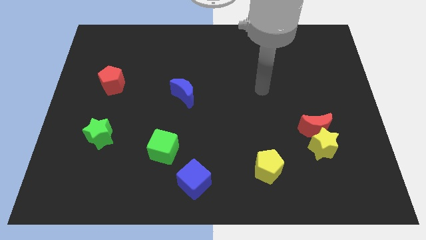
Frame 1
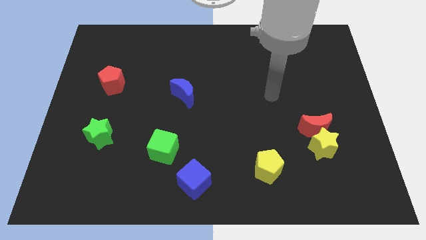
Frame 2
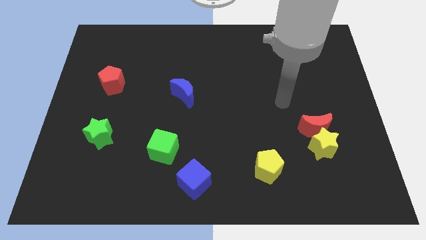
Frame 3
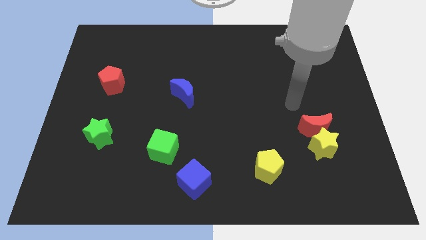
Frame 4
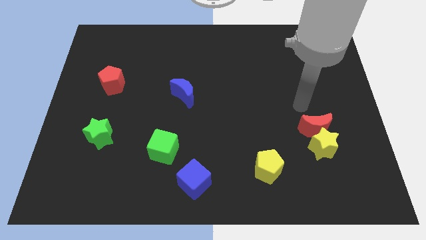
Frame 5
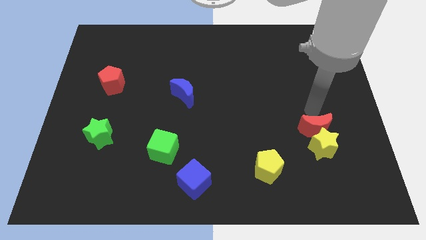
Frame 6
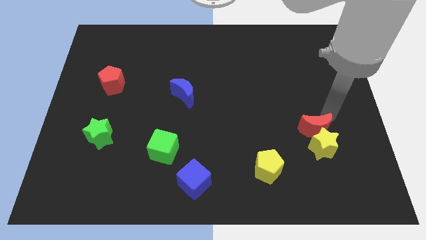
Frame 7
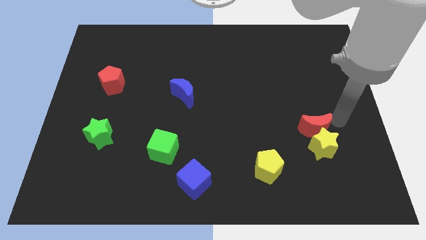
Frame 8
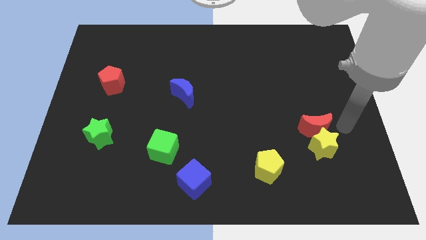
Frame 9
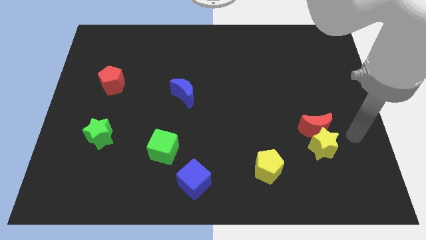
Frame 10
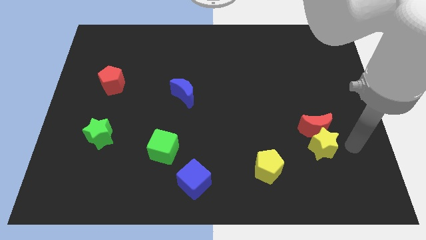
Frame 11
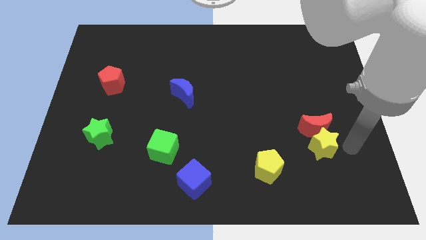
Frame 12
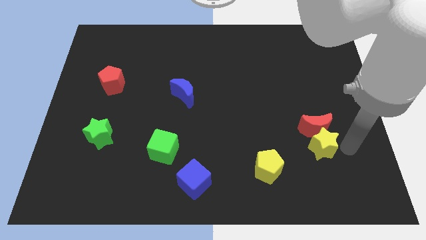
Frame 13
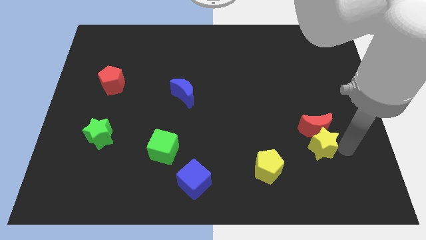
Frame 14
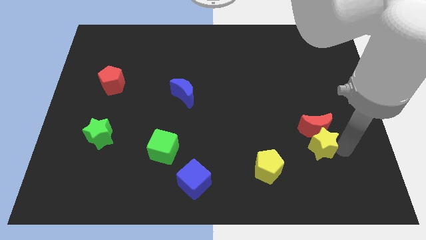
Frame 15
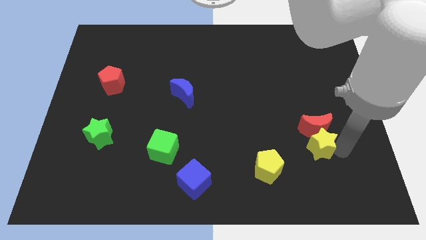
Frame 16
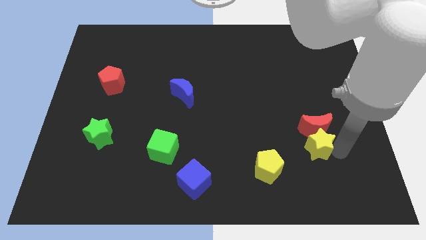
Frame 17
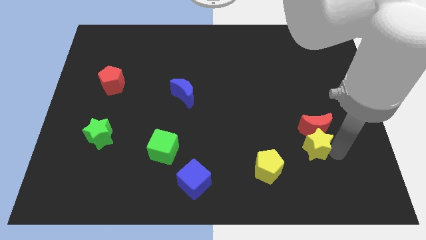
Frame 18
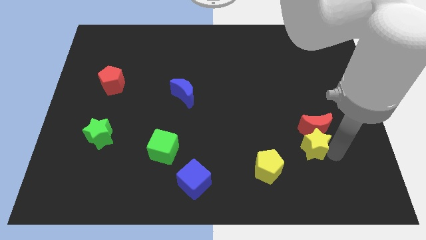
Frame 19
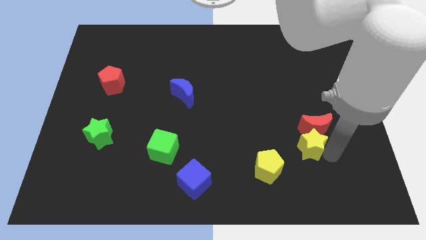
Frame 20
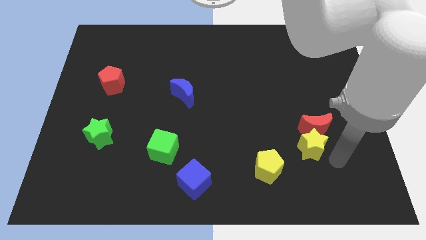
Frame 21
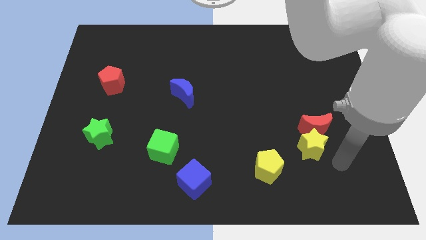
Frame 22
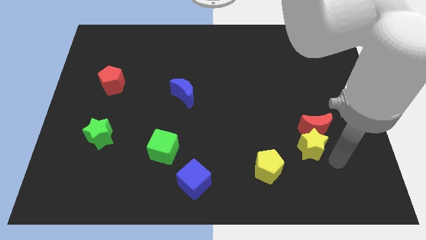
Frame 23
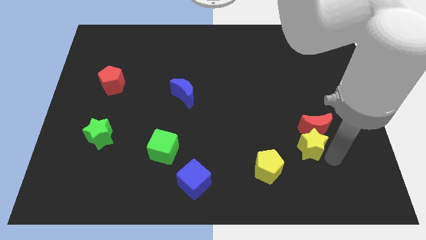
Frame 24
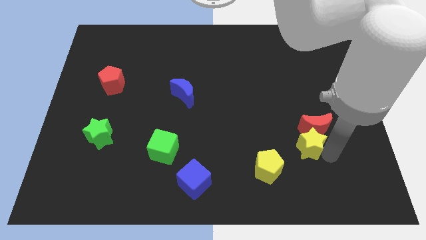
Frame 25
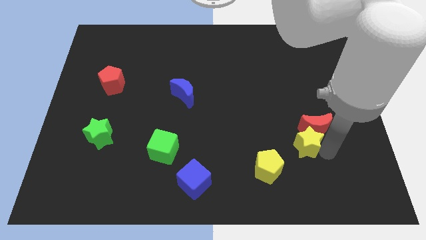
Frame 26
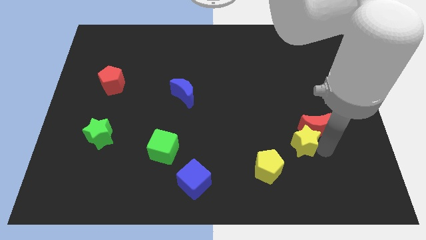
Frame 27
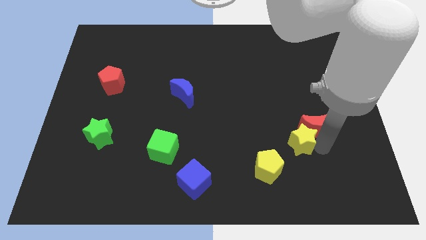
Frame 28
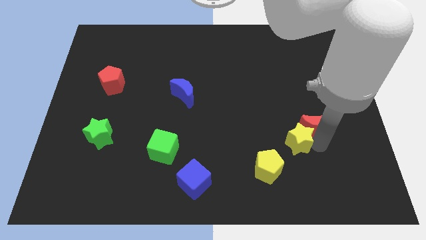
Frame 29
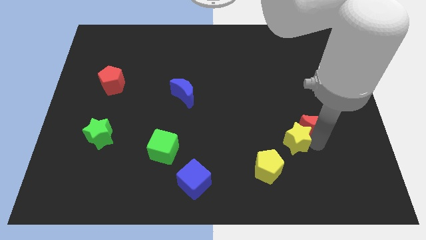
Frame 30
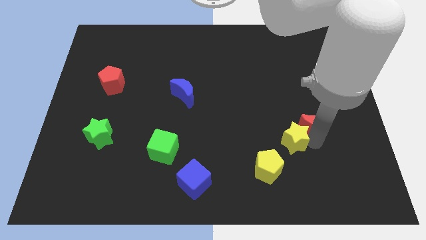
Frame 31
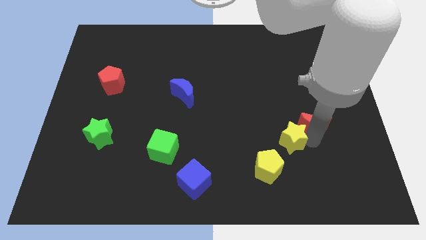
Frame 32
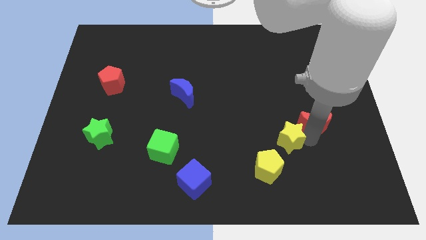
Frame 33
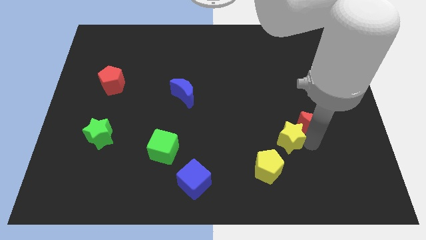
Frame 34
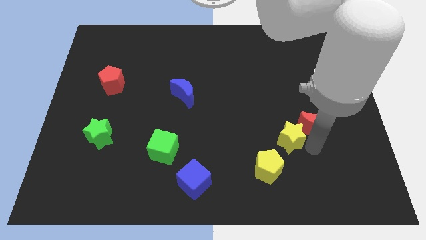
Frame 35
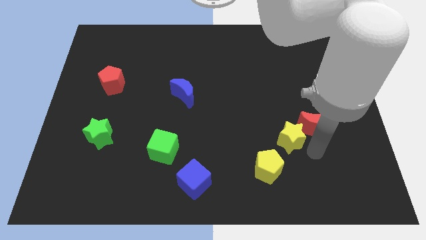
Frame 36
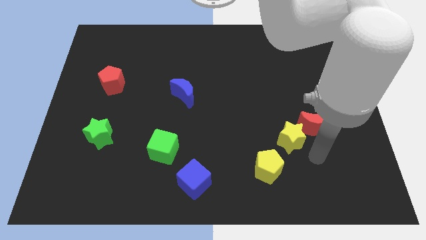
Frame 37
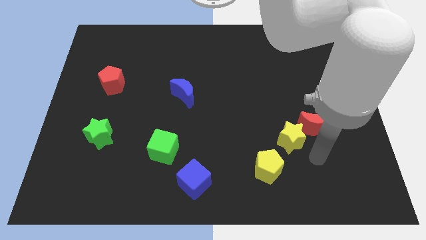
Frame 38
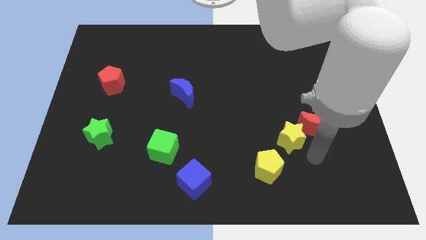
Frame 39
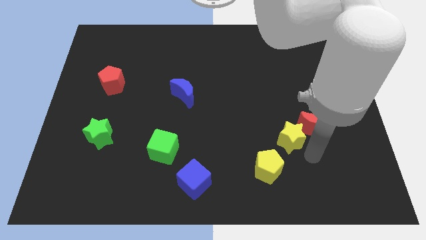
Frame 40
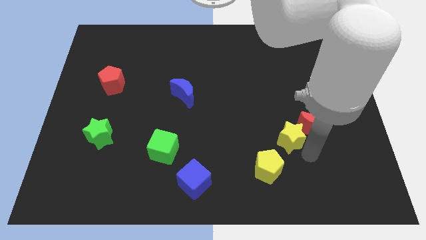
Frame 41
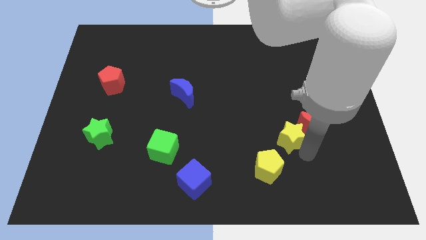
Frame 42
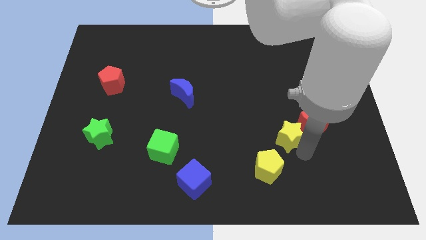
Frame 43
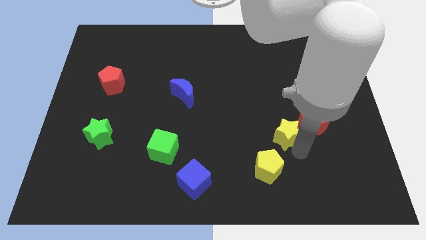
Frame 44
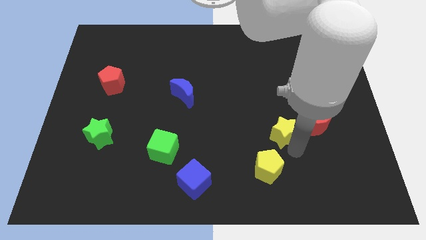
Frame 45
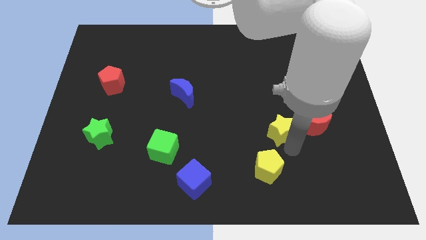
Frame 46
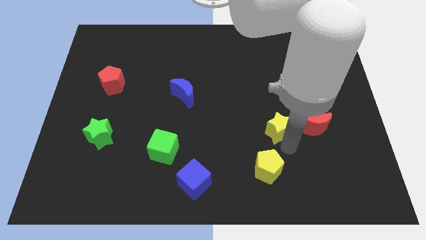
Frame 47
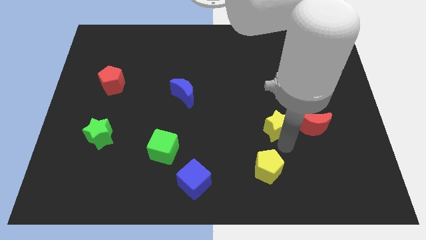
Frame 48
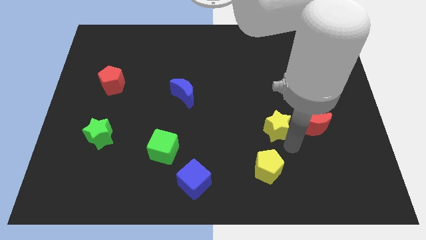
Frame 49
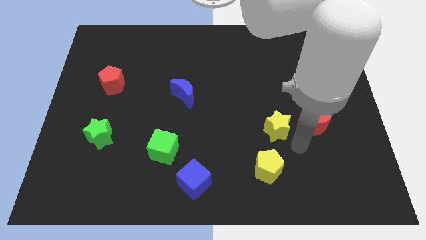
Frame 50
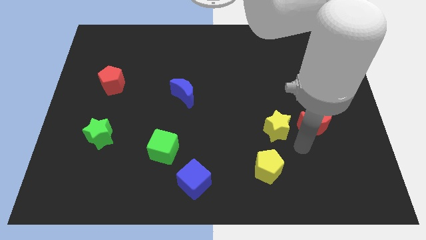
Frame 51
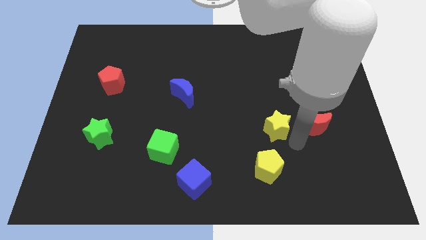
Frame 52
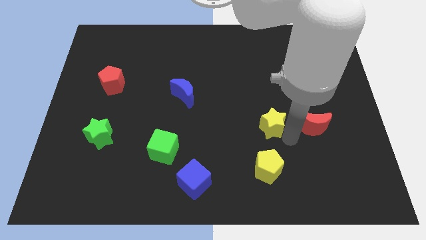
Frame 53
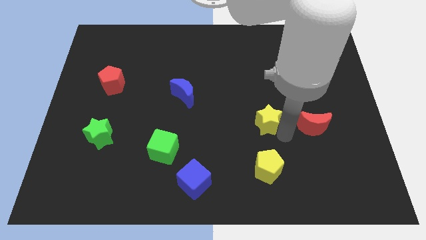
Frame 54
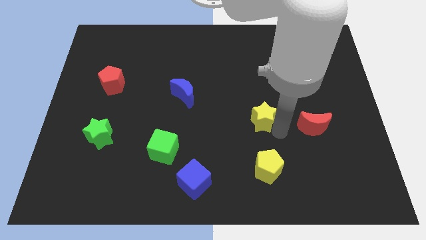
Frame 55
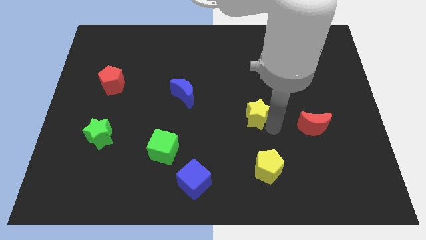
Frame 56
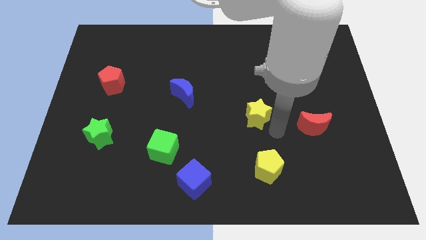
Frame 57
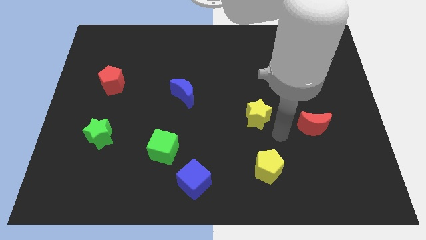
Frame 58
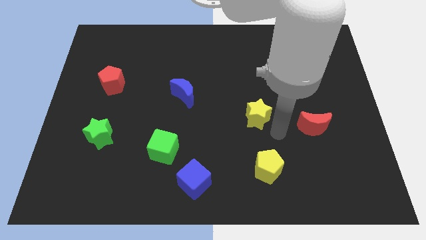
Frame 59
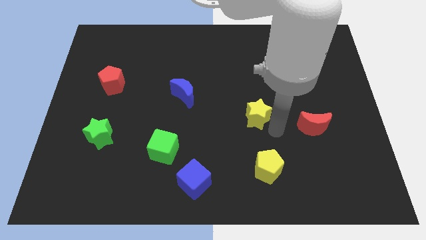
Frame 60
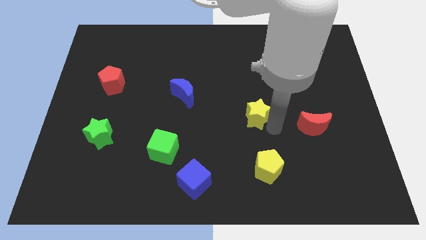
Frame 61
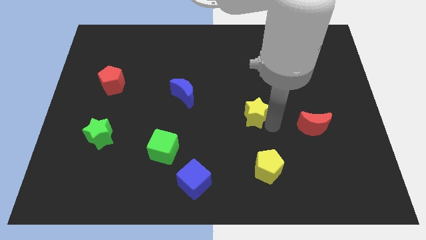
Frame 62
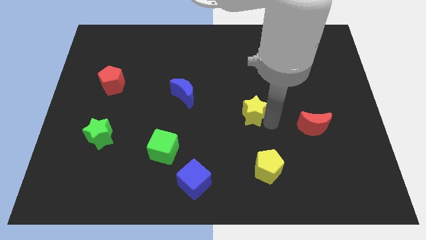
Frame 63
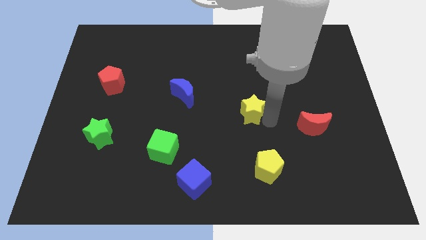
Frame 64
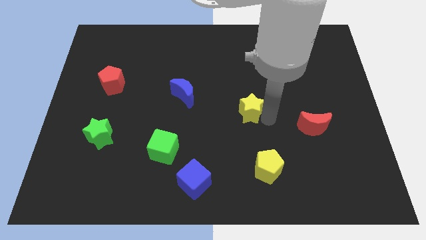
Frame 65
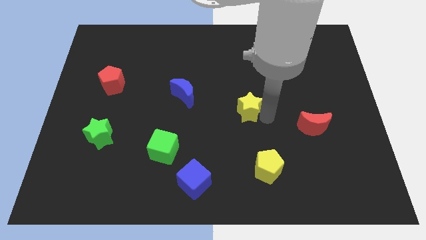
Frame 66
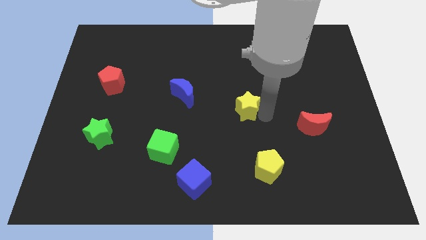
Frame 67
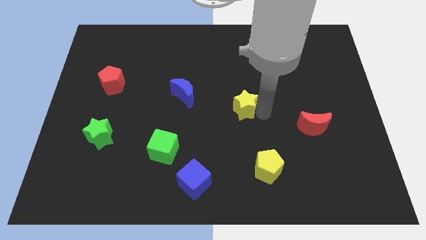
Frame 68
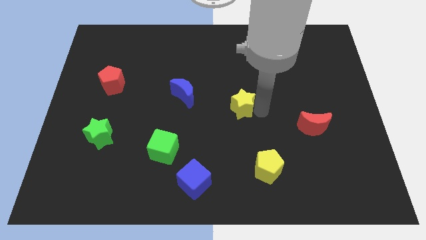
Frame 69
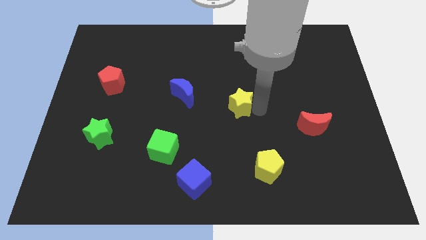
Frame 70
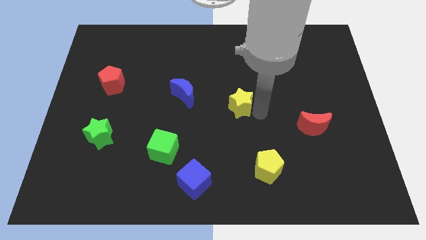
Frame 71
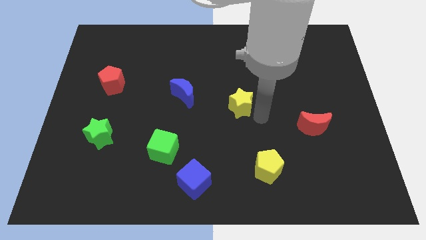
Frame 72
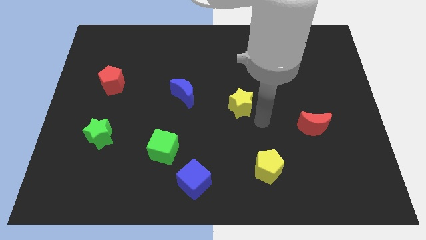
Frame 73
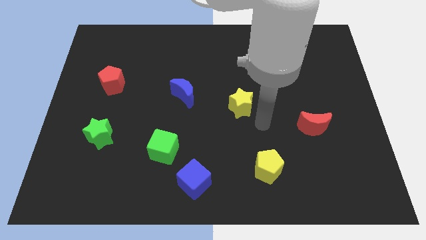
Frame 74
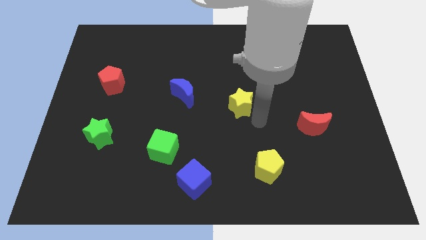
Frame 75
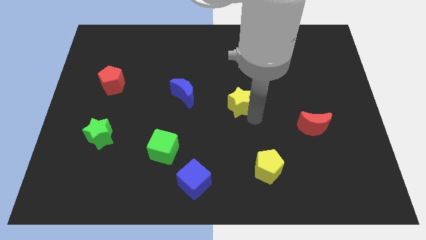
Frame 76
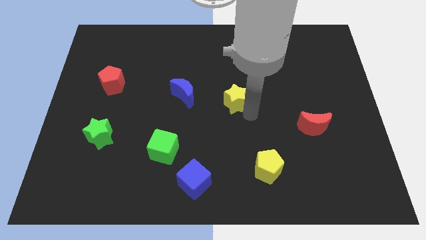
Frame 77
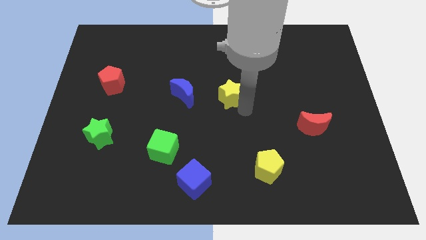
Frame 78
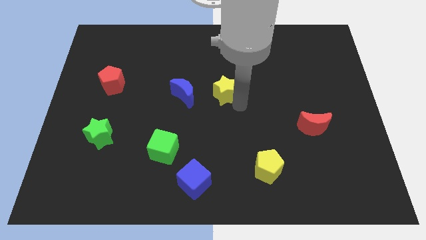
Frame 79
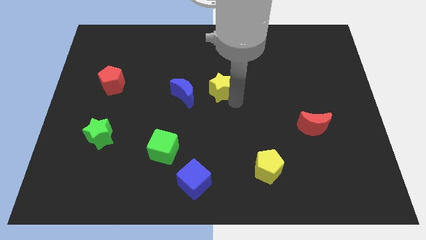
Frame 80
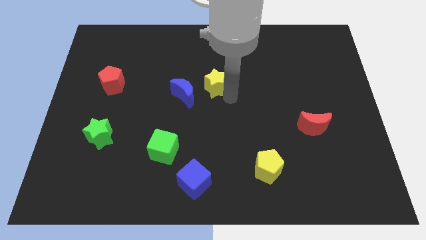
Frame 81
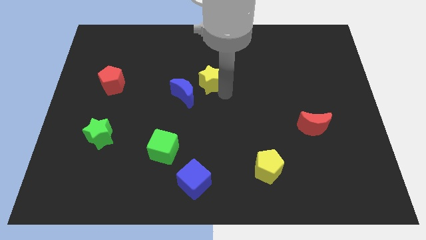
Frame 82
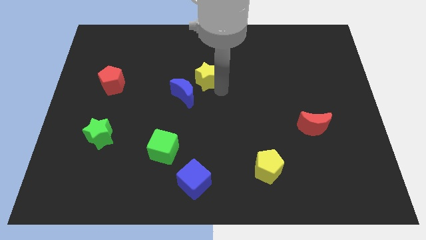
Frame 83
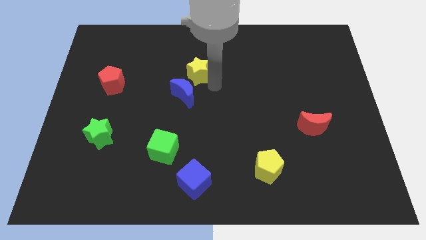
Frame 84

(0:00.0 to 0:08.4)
slide the yellow star above the blue moon
